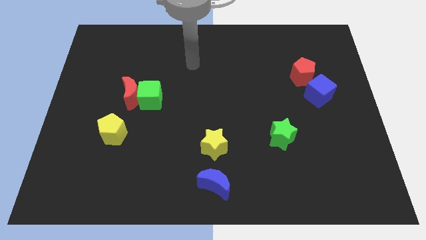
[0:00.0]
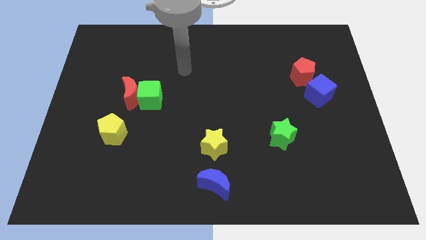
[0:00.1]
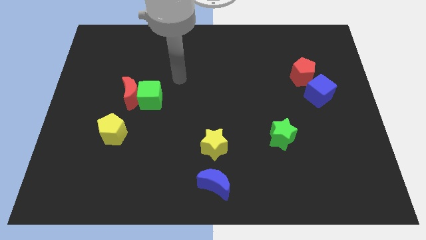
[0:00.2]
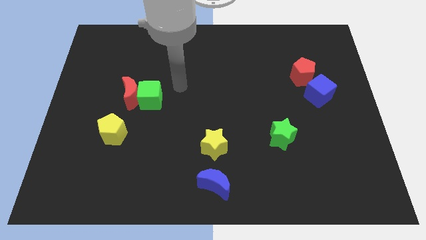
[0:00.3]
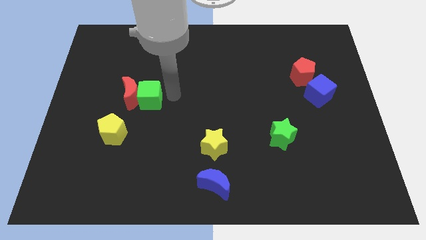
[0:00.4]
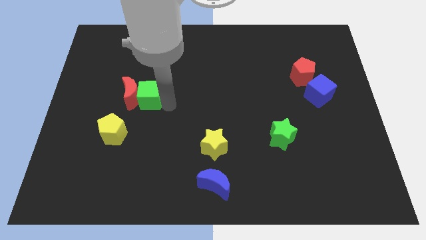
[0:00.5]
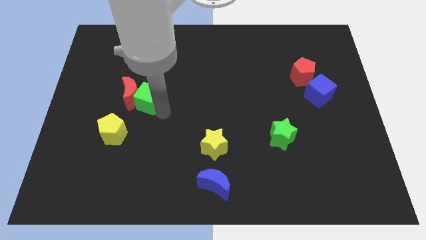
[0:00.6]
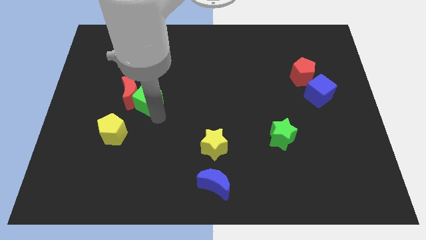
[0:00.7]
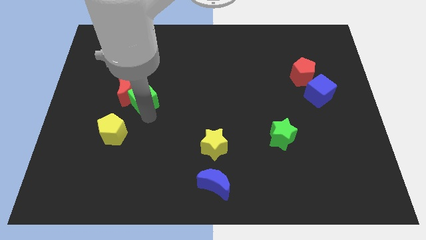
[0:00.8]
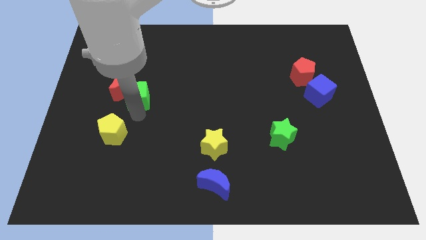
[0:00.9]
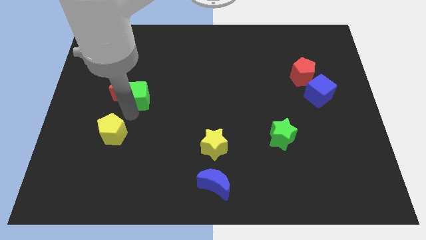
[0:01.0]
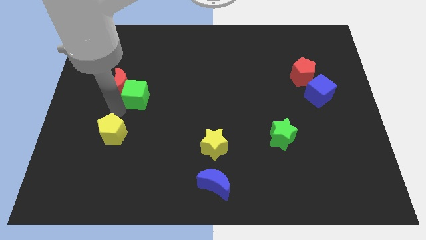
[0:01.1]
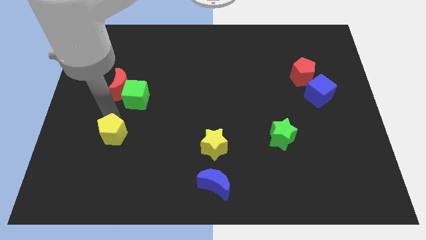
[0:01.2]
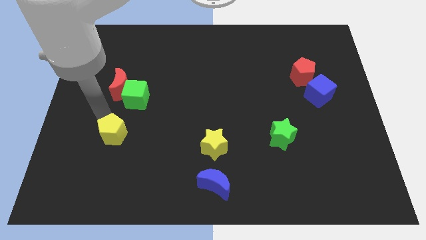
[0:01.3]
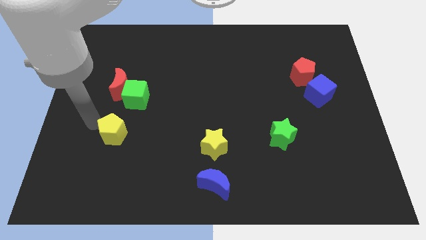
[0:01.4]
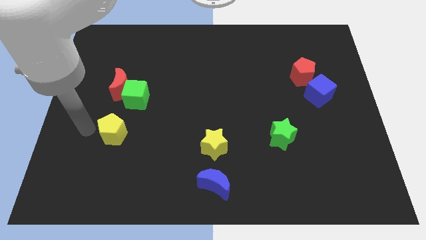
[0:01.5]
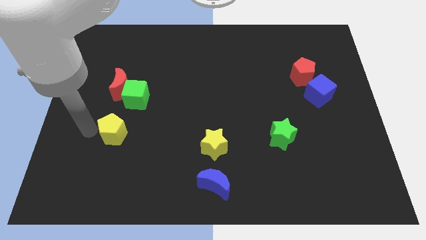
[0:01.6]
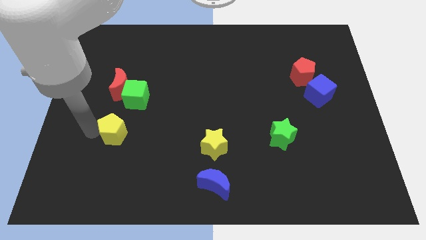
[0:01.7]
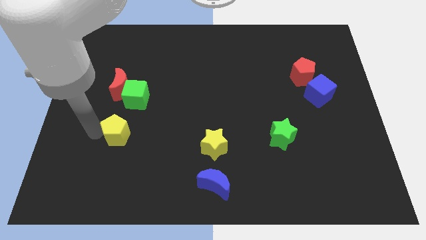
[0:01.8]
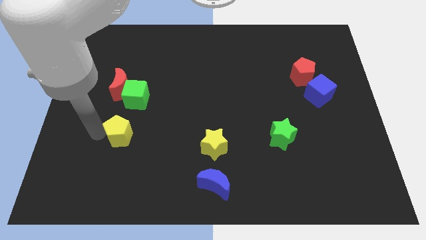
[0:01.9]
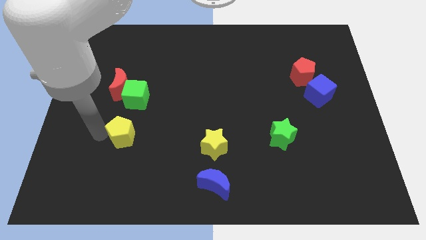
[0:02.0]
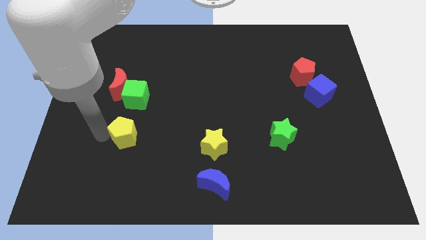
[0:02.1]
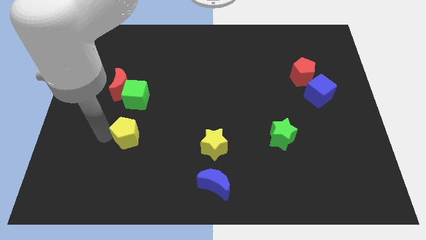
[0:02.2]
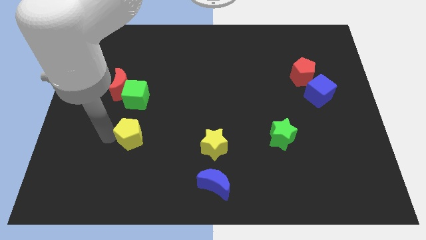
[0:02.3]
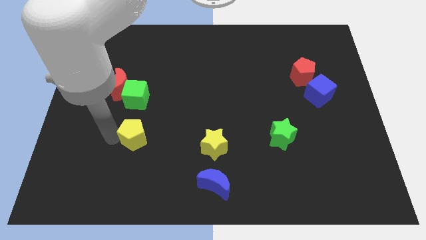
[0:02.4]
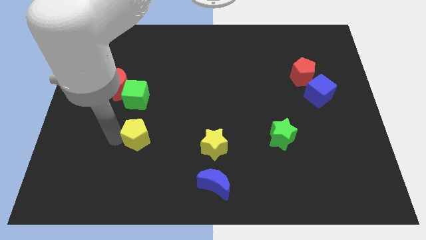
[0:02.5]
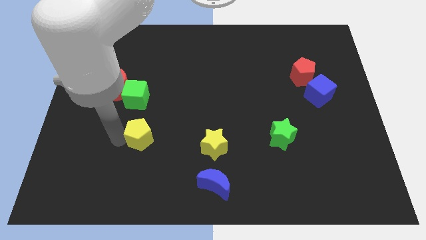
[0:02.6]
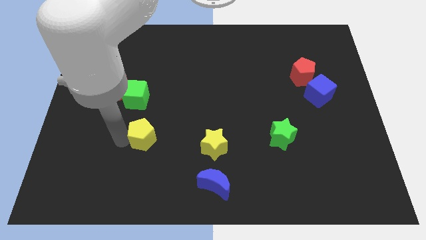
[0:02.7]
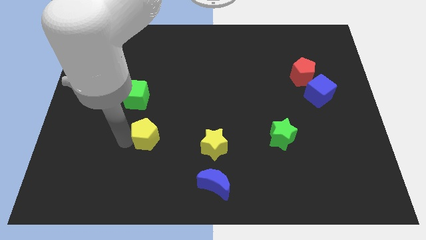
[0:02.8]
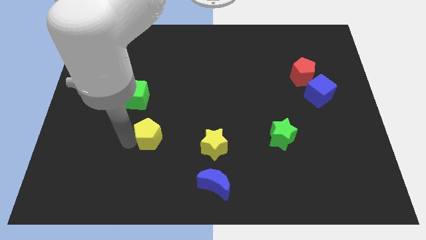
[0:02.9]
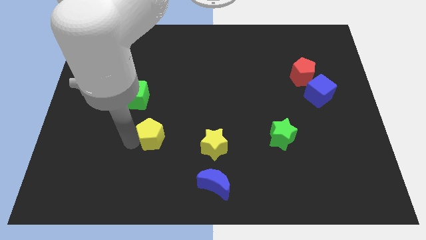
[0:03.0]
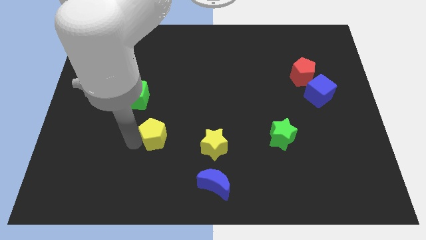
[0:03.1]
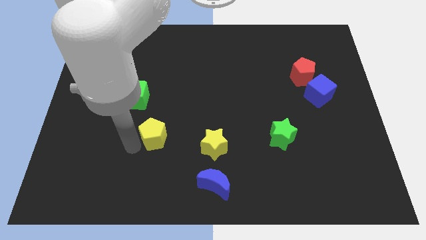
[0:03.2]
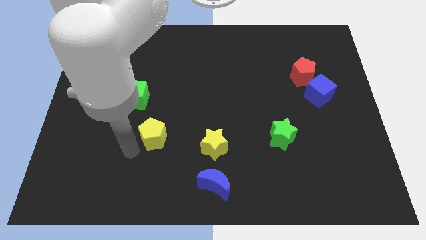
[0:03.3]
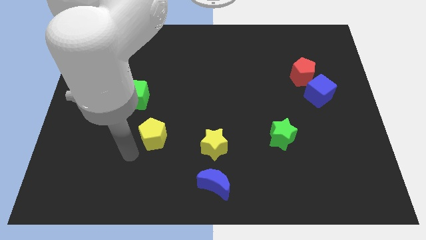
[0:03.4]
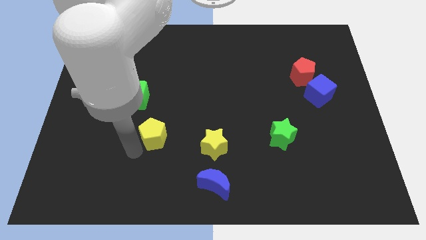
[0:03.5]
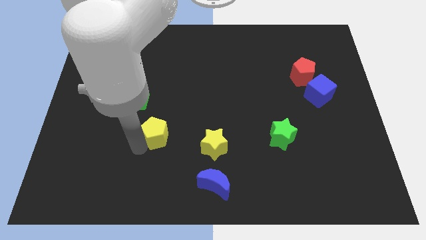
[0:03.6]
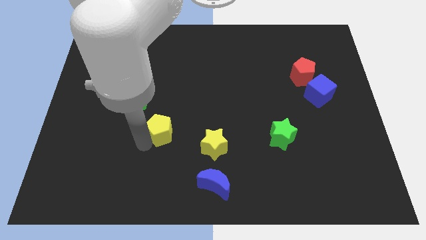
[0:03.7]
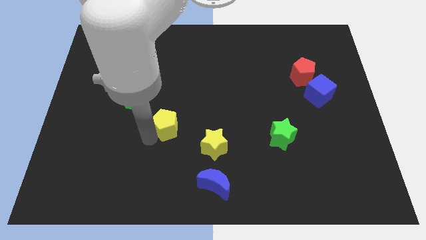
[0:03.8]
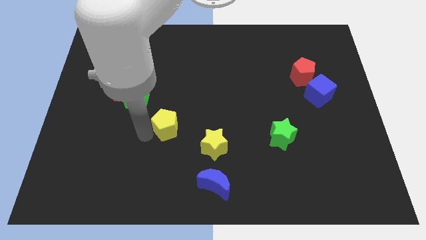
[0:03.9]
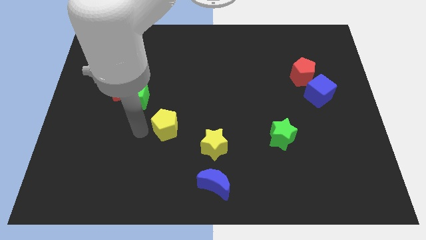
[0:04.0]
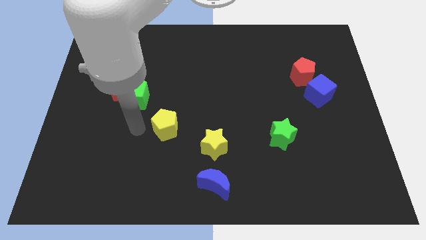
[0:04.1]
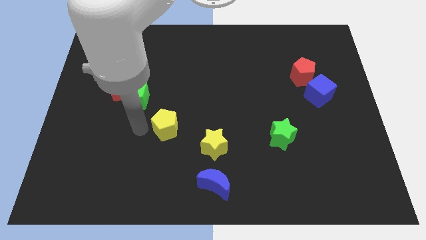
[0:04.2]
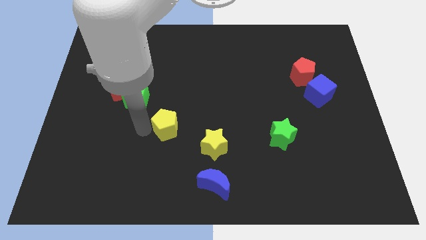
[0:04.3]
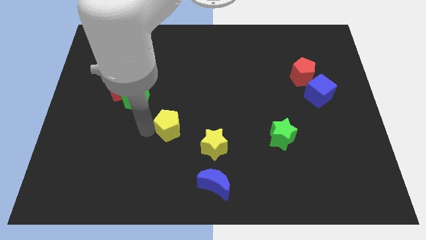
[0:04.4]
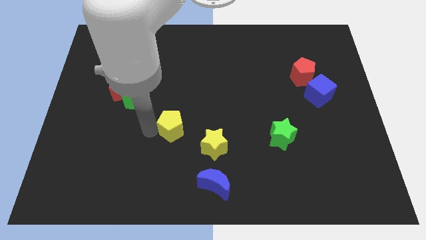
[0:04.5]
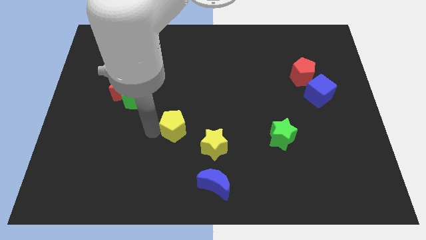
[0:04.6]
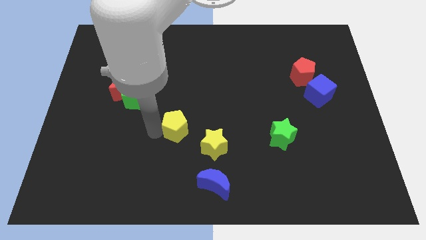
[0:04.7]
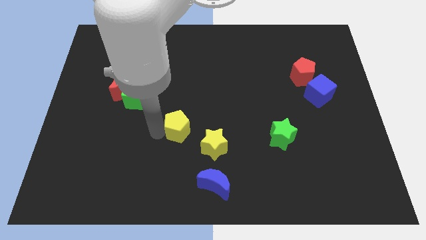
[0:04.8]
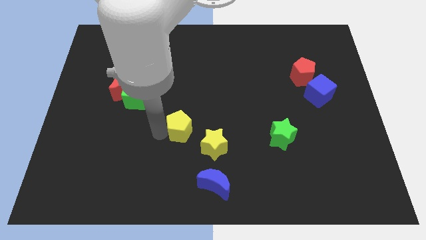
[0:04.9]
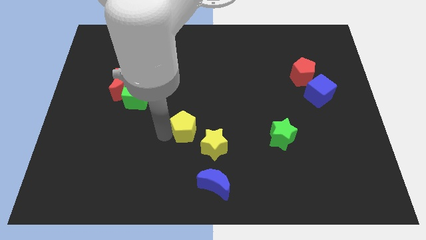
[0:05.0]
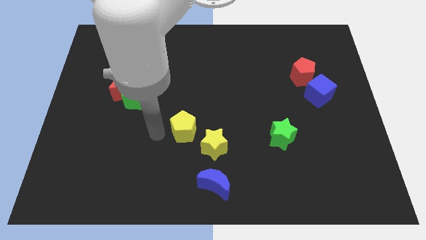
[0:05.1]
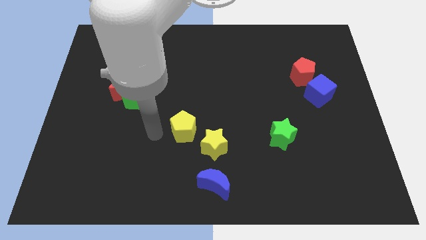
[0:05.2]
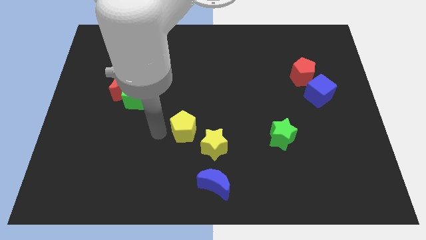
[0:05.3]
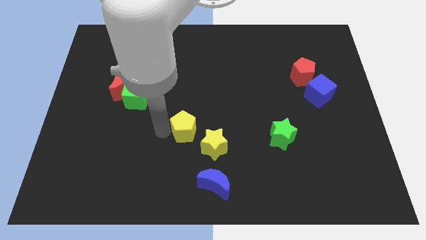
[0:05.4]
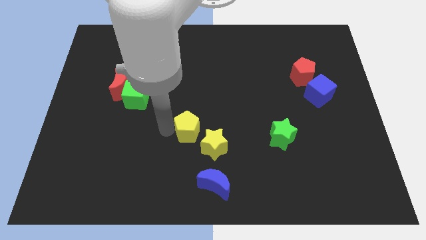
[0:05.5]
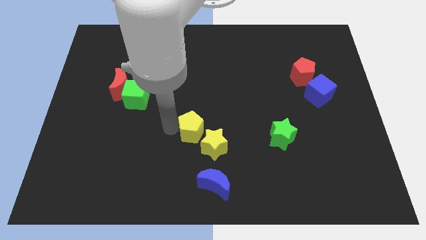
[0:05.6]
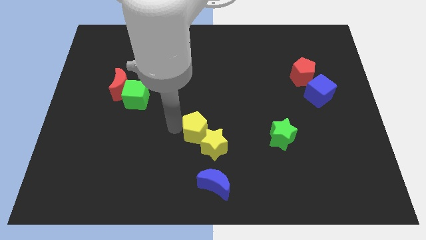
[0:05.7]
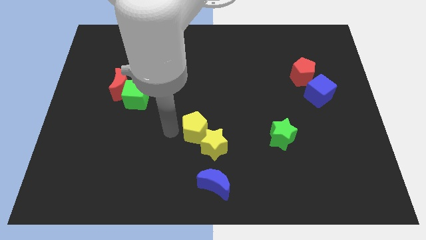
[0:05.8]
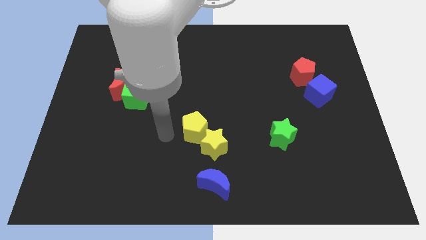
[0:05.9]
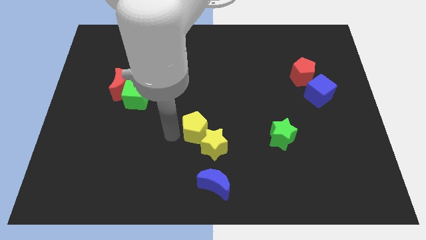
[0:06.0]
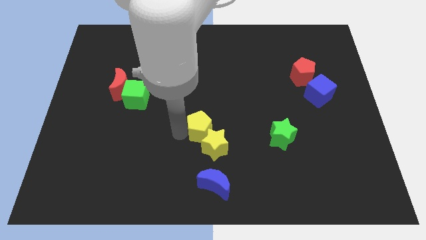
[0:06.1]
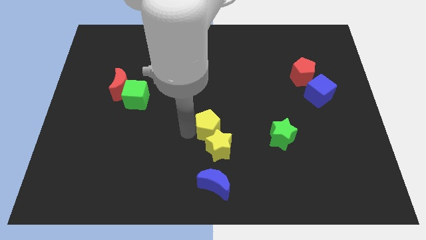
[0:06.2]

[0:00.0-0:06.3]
push the yellow pentagon right

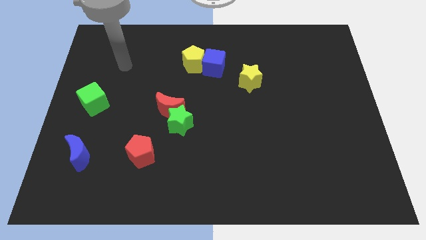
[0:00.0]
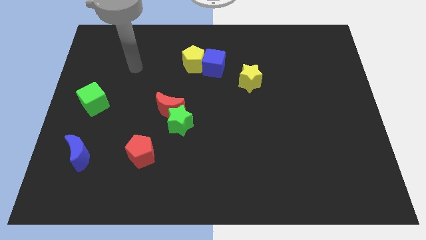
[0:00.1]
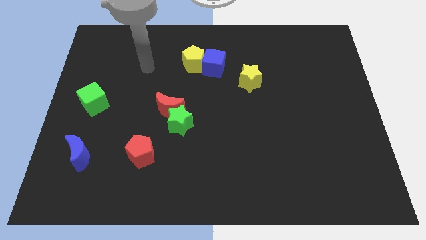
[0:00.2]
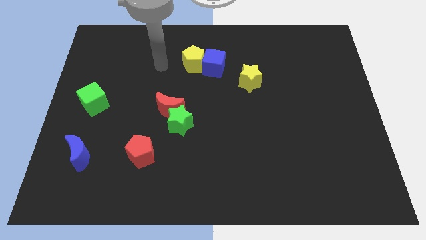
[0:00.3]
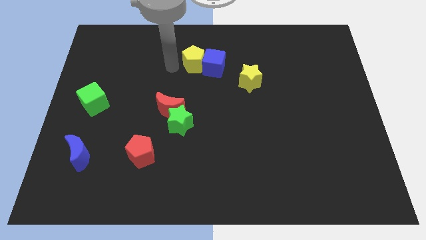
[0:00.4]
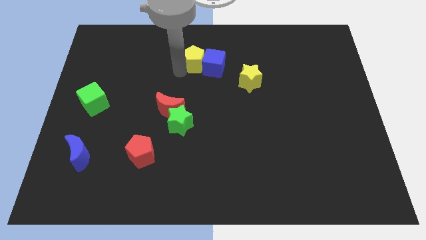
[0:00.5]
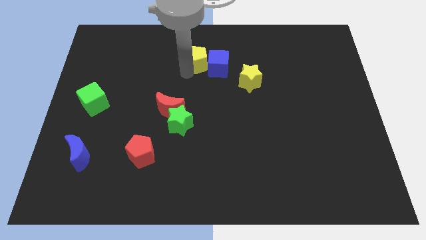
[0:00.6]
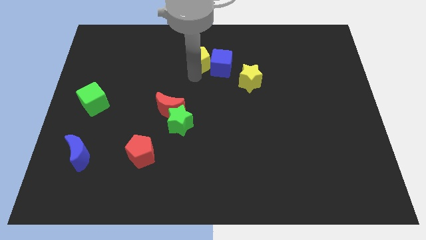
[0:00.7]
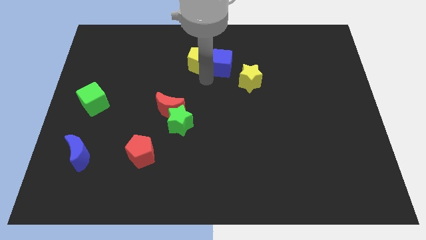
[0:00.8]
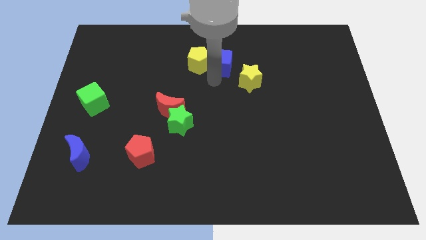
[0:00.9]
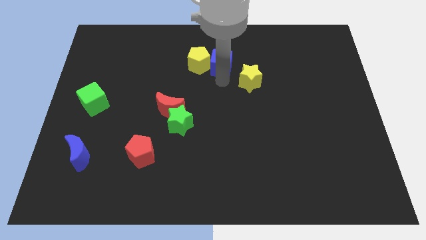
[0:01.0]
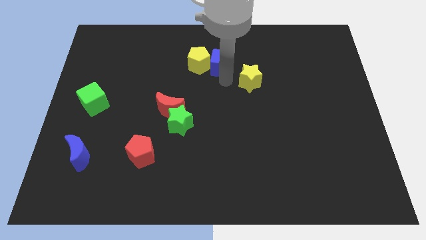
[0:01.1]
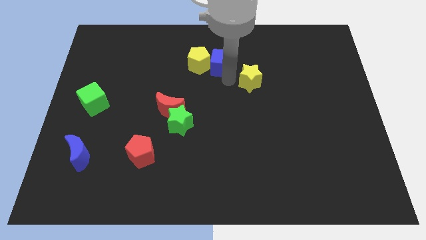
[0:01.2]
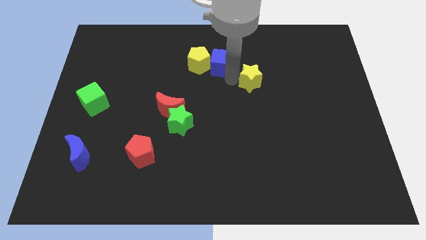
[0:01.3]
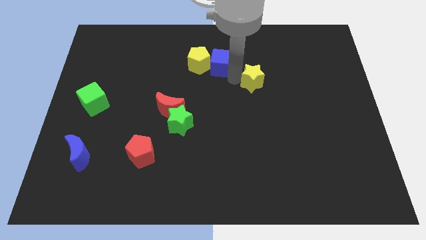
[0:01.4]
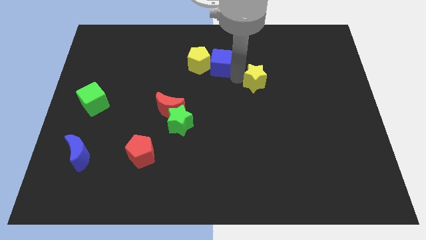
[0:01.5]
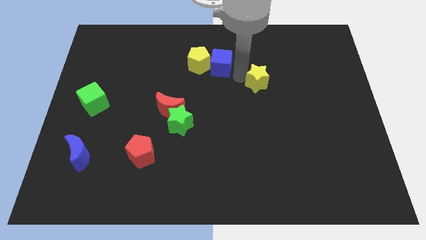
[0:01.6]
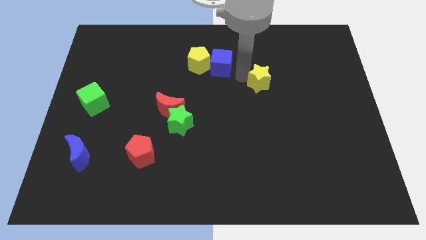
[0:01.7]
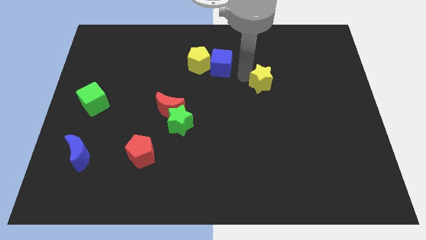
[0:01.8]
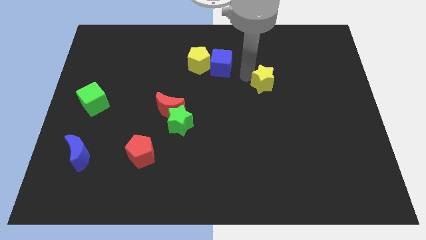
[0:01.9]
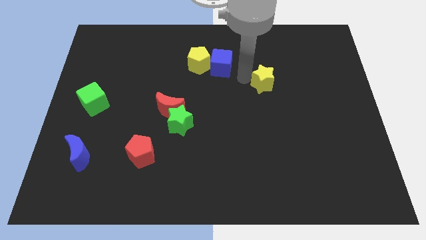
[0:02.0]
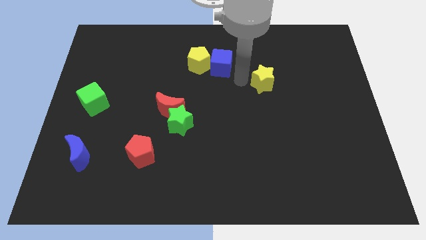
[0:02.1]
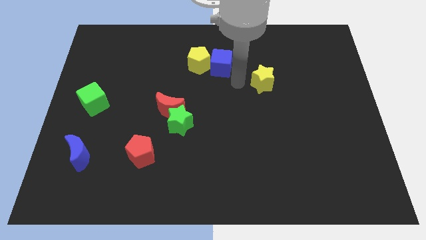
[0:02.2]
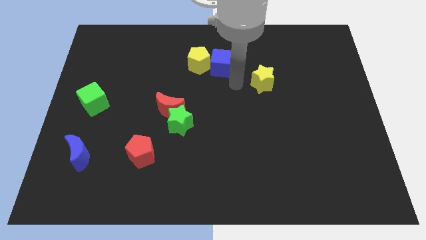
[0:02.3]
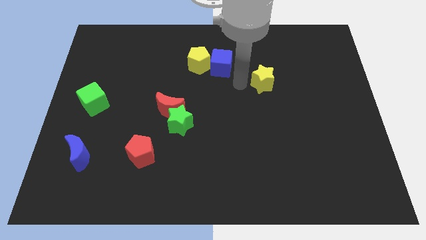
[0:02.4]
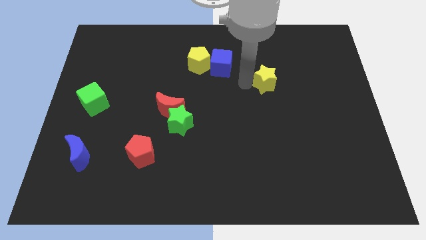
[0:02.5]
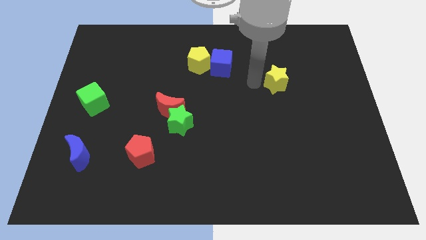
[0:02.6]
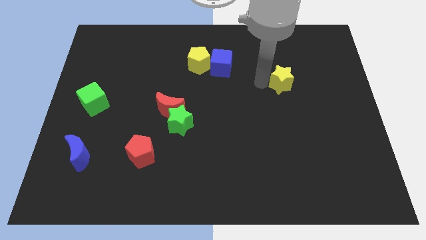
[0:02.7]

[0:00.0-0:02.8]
move the yellow star slightly to the right
